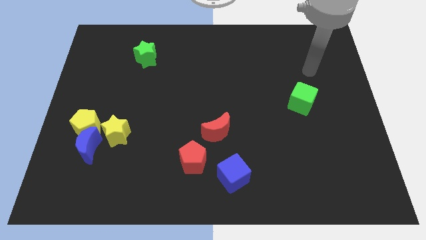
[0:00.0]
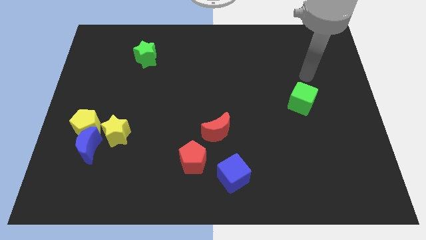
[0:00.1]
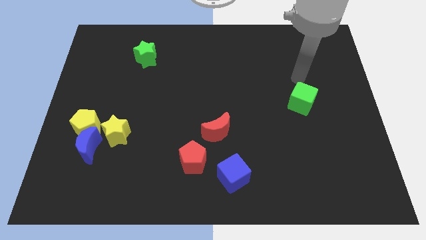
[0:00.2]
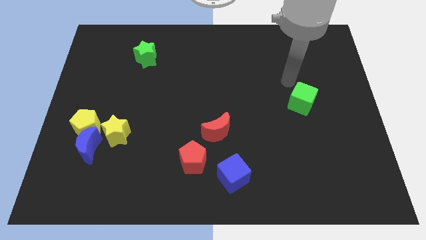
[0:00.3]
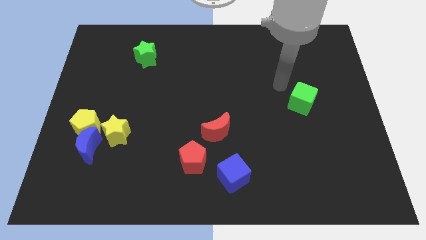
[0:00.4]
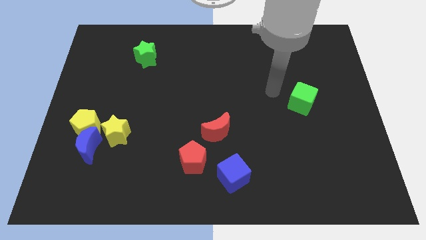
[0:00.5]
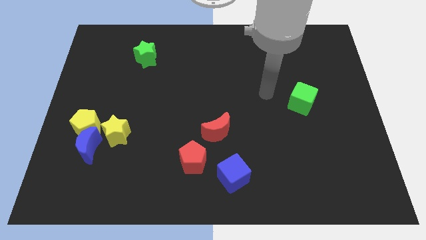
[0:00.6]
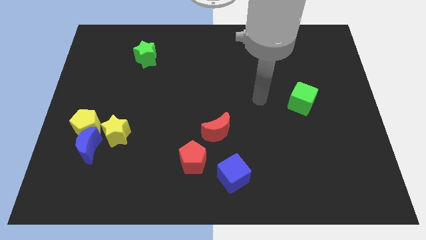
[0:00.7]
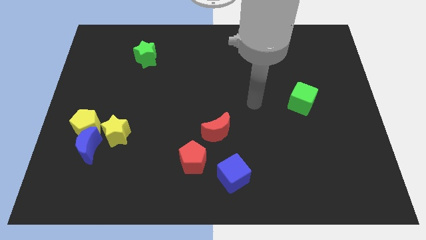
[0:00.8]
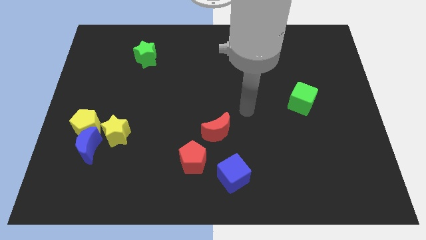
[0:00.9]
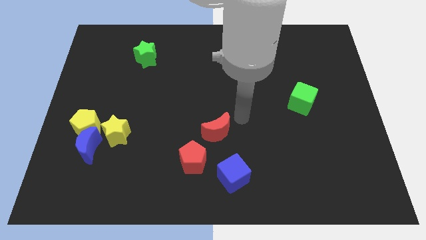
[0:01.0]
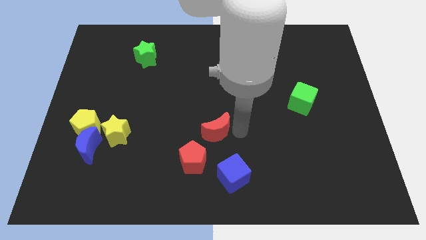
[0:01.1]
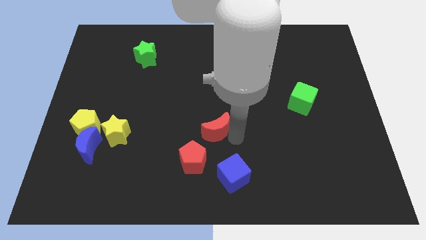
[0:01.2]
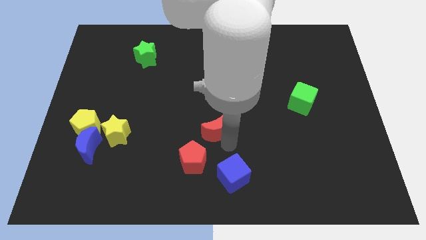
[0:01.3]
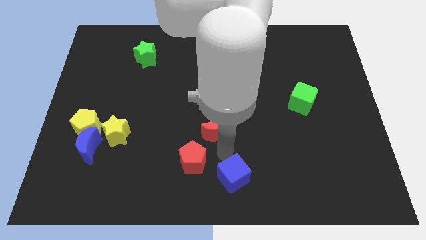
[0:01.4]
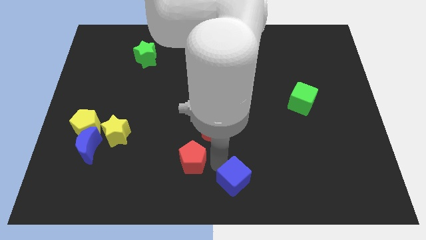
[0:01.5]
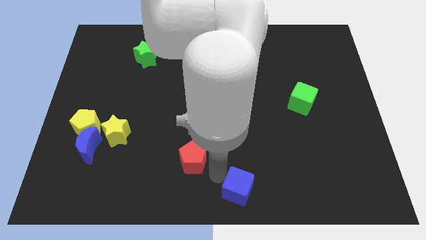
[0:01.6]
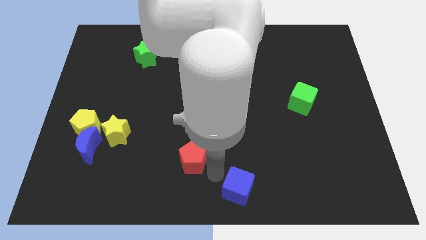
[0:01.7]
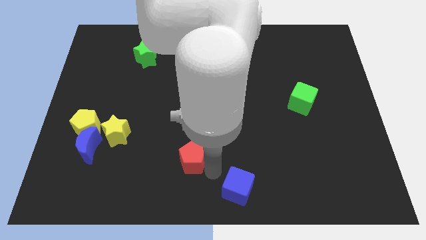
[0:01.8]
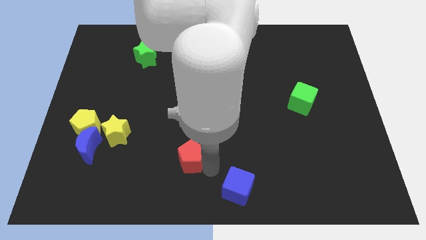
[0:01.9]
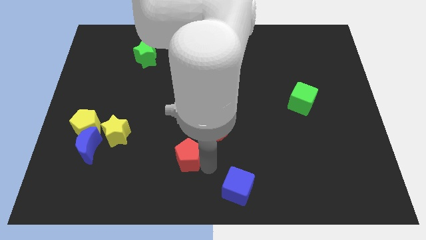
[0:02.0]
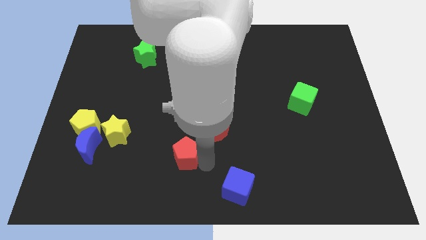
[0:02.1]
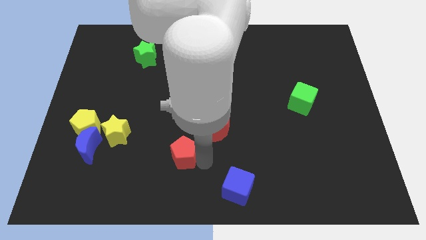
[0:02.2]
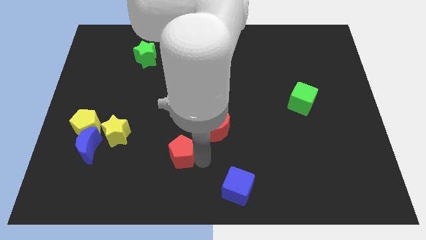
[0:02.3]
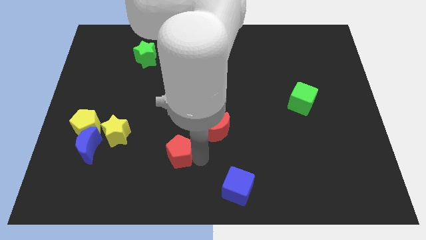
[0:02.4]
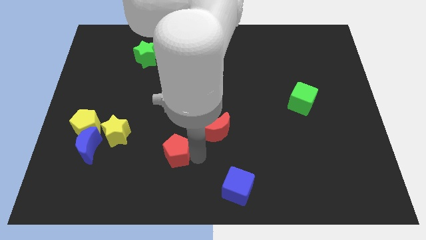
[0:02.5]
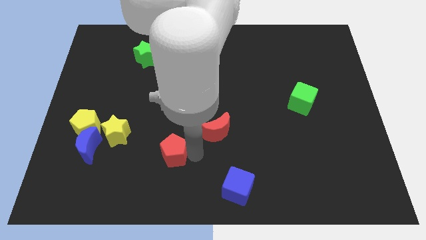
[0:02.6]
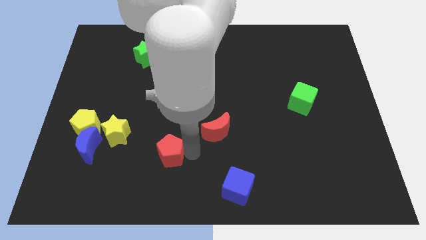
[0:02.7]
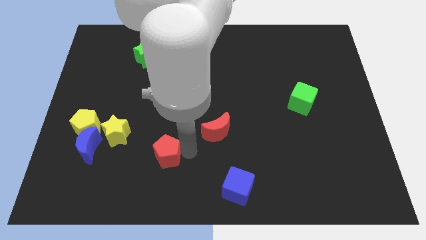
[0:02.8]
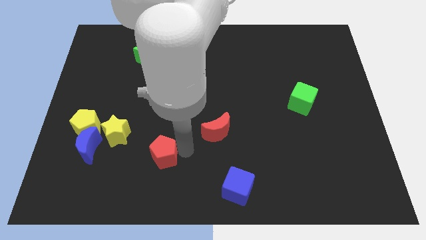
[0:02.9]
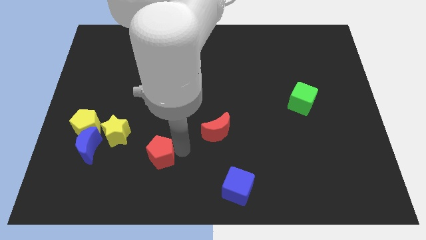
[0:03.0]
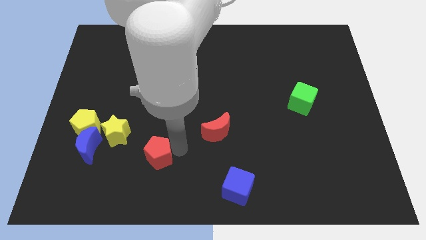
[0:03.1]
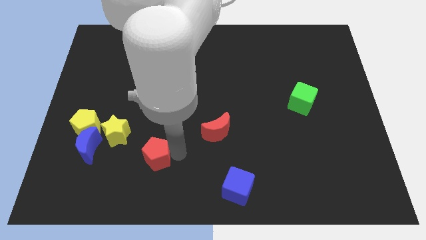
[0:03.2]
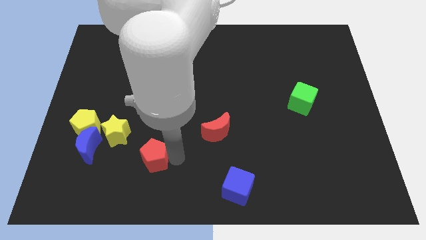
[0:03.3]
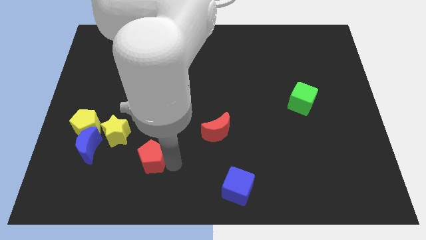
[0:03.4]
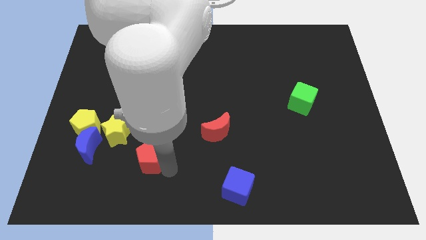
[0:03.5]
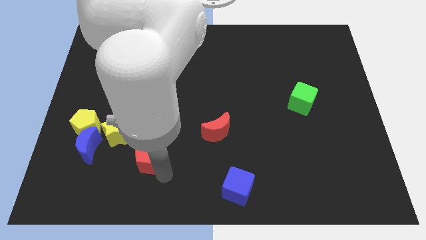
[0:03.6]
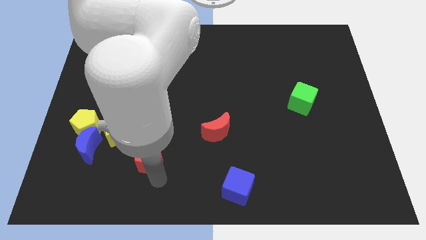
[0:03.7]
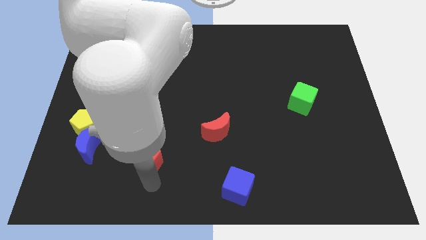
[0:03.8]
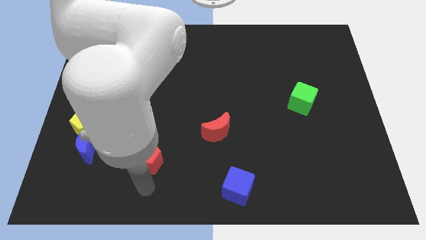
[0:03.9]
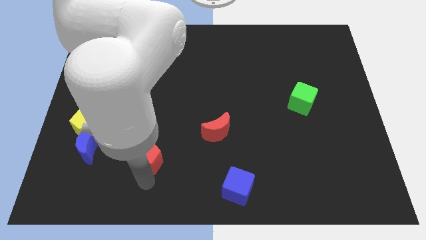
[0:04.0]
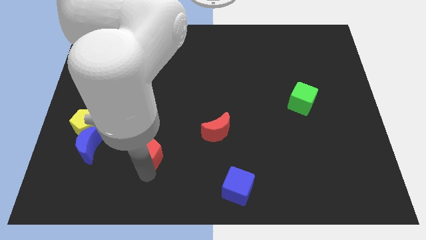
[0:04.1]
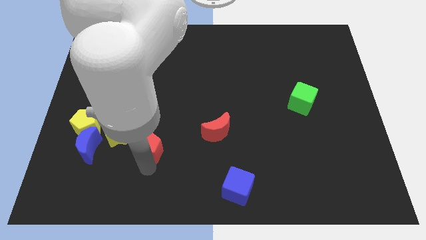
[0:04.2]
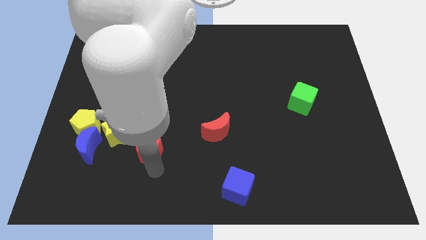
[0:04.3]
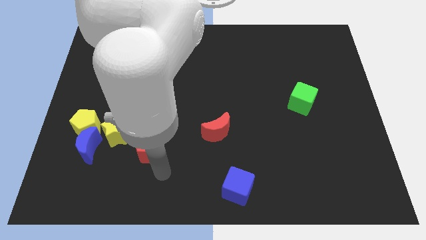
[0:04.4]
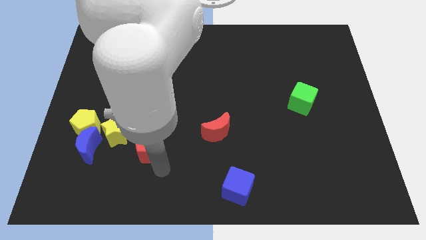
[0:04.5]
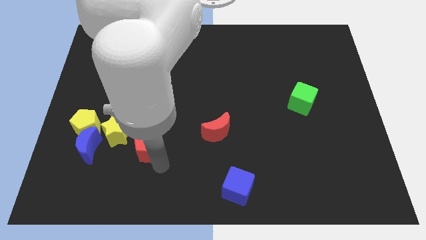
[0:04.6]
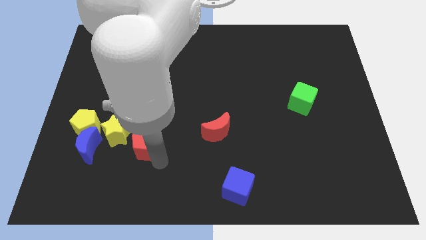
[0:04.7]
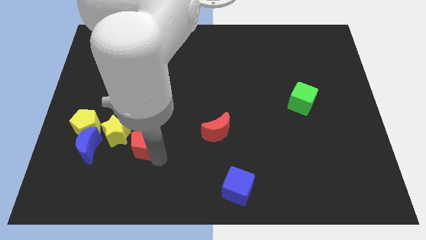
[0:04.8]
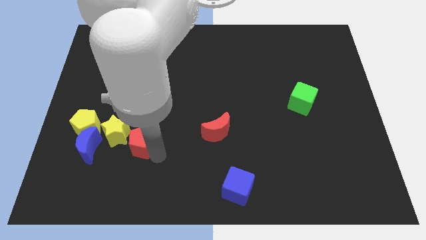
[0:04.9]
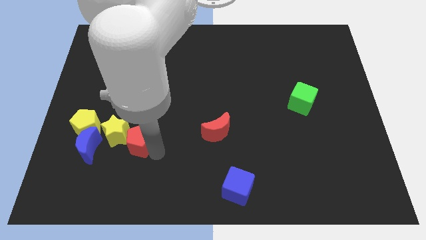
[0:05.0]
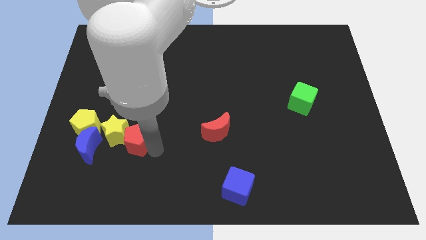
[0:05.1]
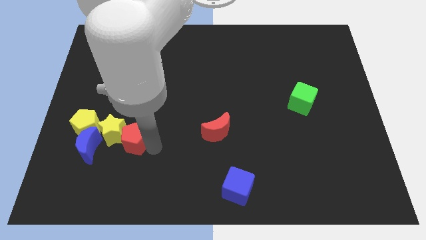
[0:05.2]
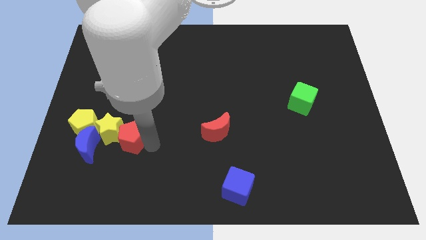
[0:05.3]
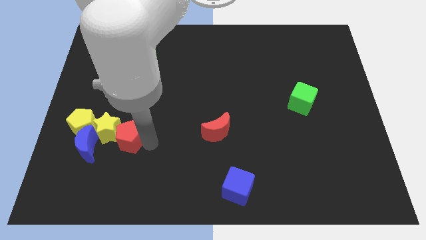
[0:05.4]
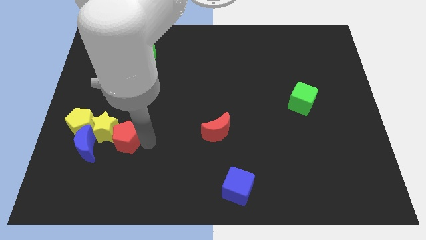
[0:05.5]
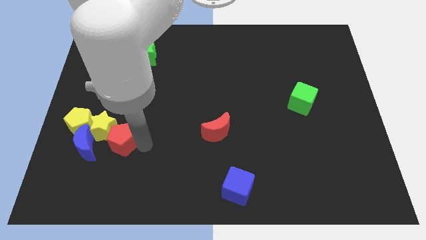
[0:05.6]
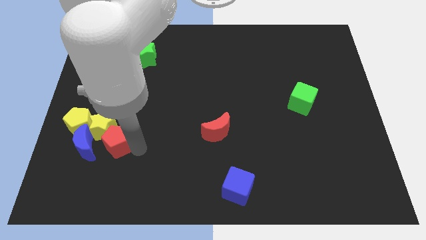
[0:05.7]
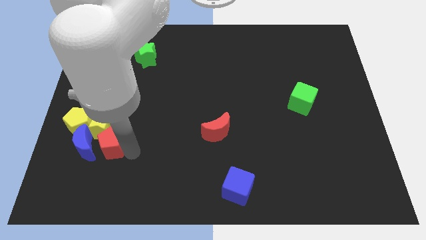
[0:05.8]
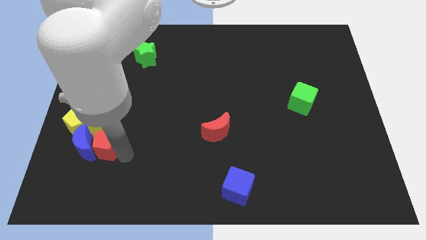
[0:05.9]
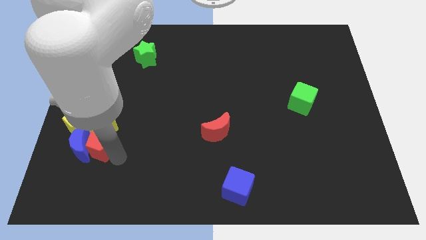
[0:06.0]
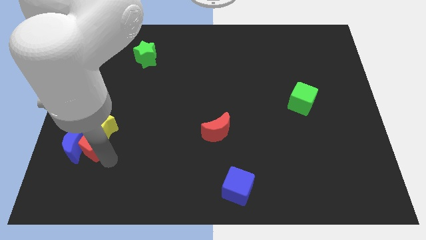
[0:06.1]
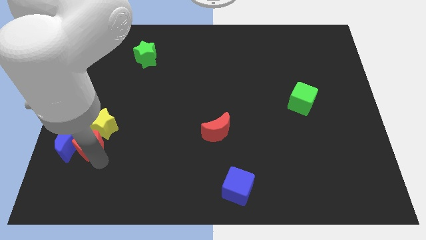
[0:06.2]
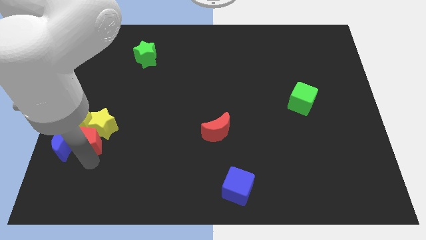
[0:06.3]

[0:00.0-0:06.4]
slide the red pentagon close to the yellow pentagon

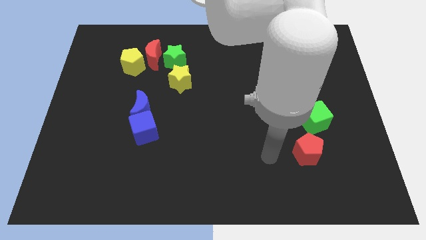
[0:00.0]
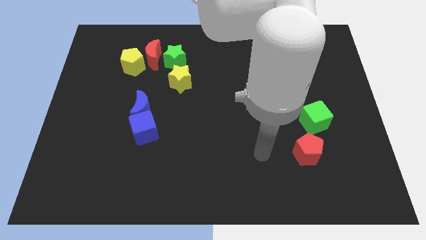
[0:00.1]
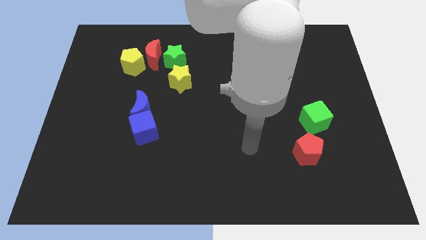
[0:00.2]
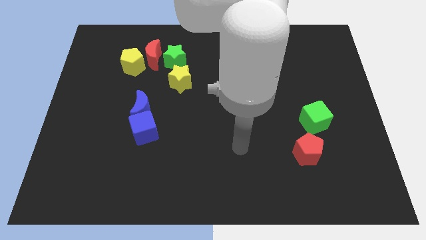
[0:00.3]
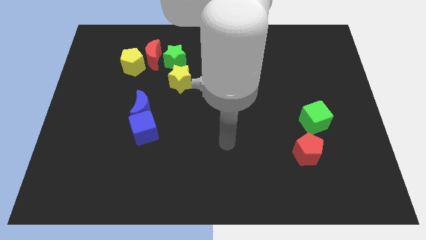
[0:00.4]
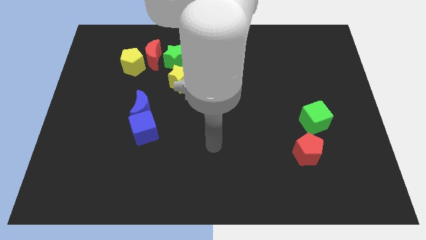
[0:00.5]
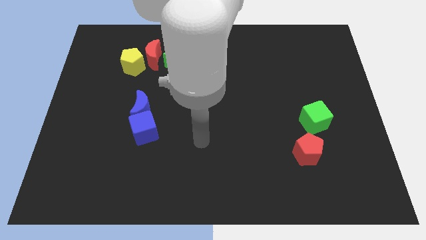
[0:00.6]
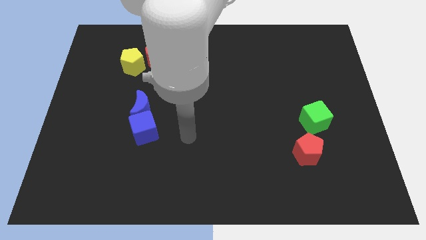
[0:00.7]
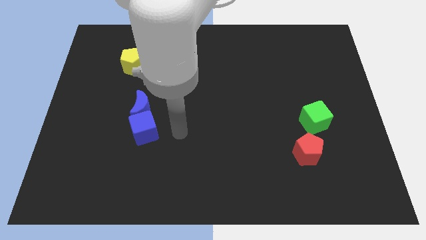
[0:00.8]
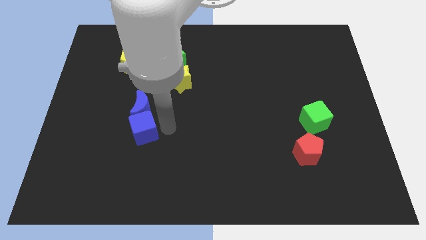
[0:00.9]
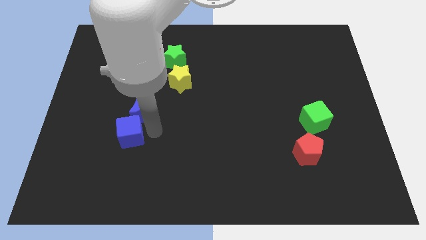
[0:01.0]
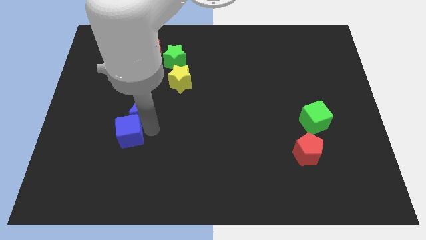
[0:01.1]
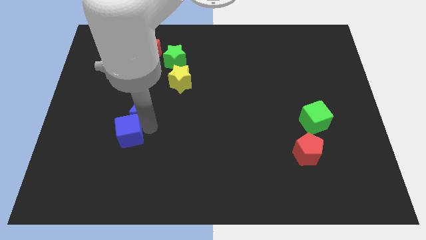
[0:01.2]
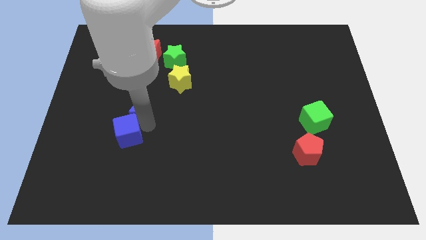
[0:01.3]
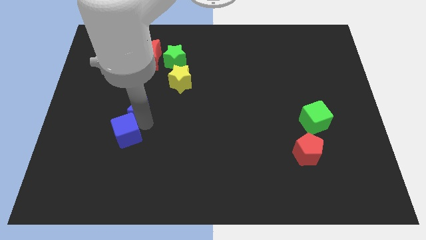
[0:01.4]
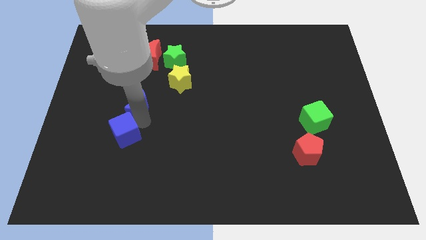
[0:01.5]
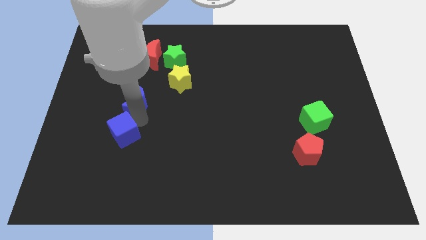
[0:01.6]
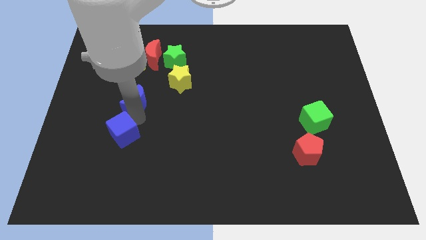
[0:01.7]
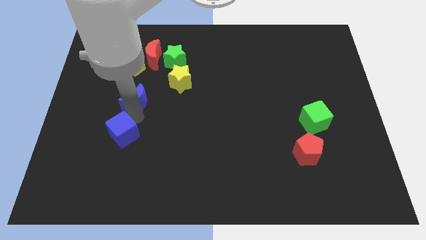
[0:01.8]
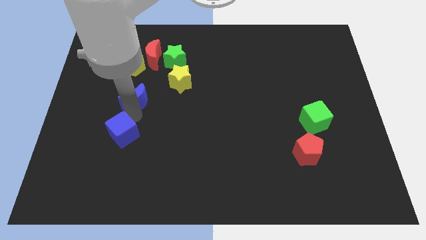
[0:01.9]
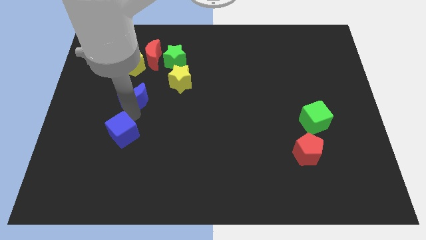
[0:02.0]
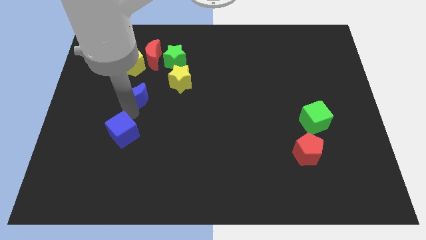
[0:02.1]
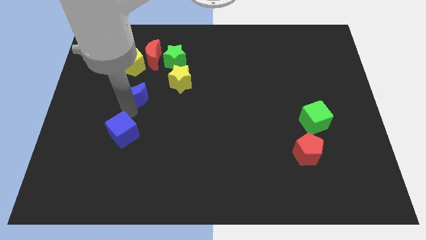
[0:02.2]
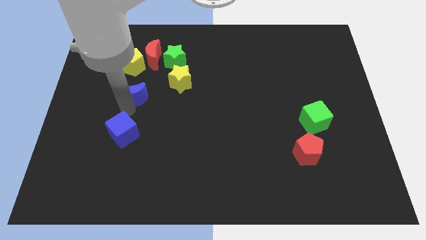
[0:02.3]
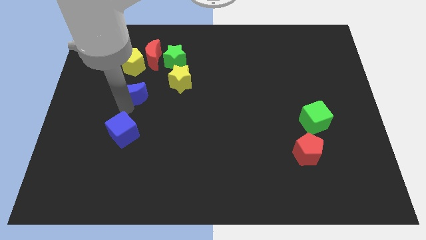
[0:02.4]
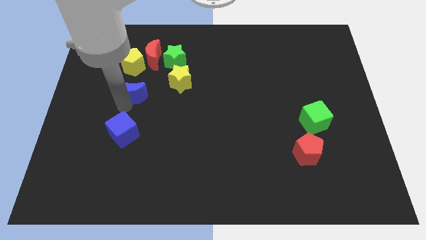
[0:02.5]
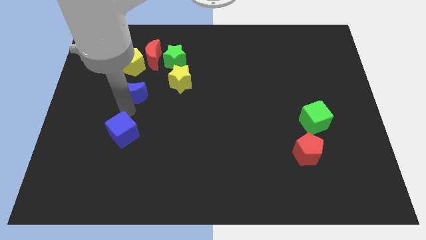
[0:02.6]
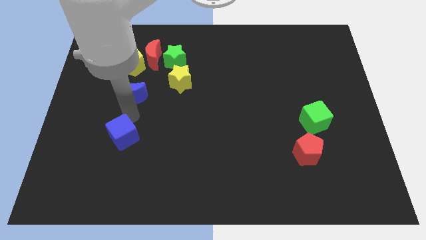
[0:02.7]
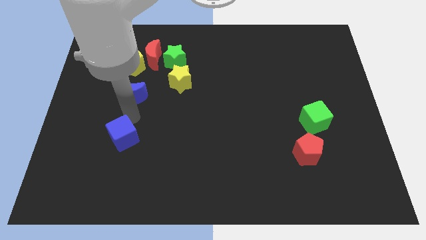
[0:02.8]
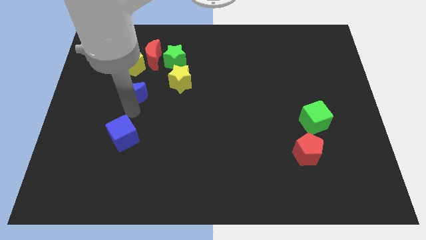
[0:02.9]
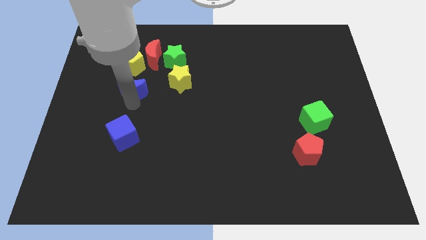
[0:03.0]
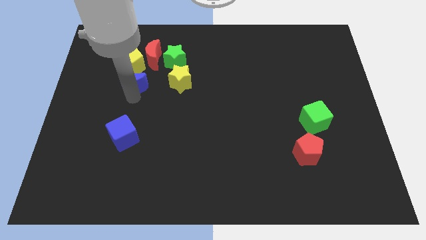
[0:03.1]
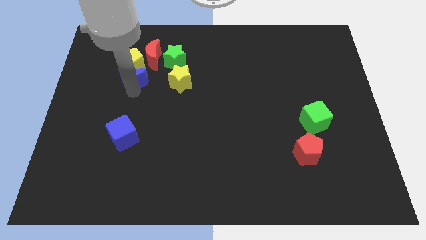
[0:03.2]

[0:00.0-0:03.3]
push the blue moon to the yellow pentagon
